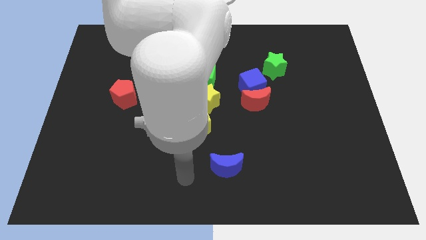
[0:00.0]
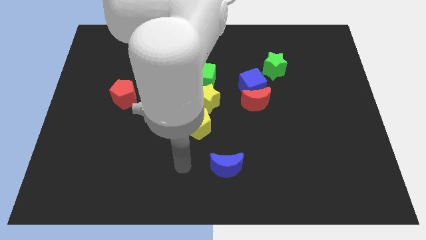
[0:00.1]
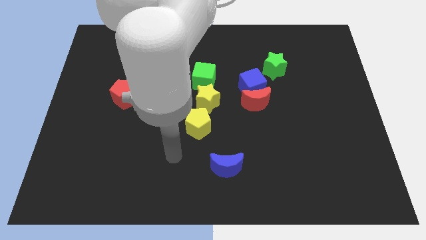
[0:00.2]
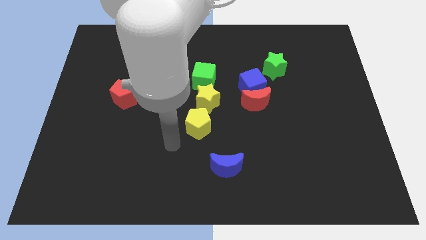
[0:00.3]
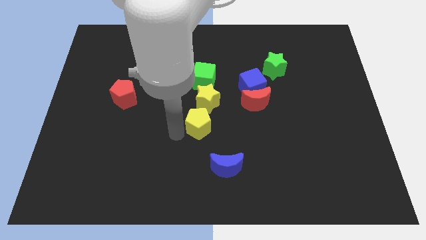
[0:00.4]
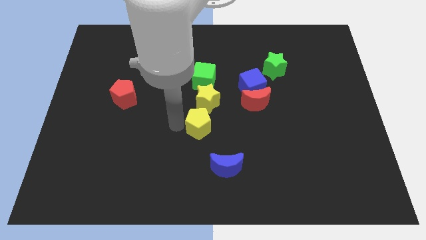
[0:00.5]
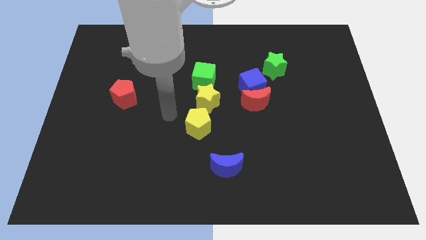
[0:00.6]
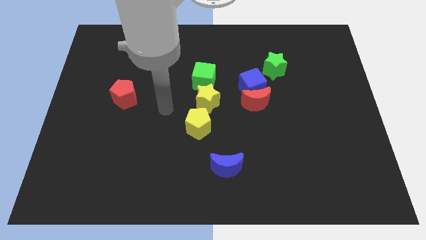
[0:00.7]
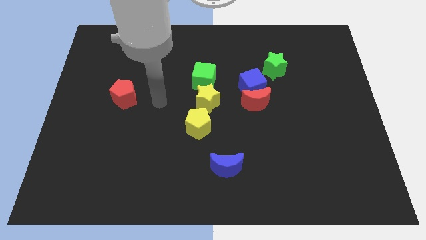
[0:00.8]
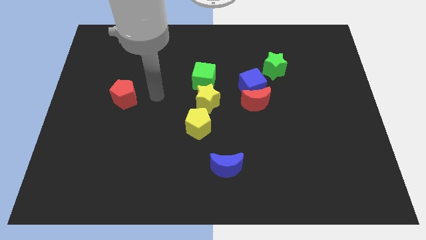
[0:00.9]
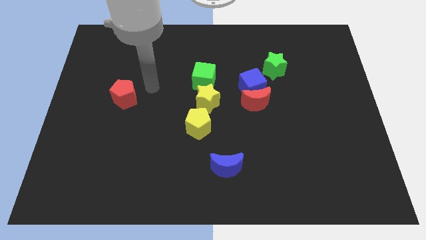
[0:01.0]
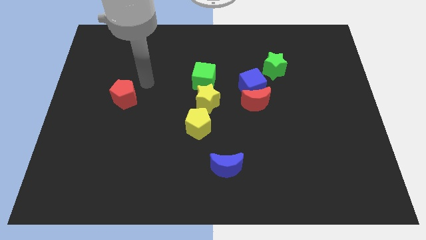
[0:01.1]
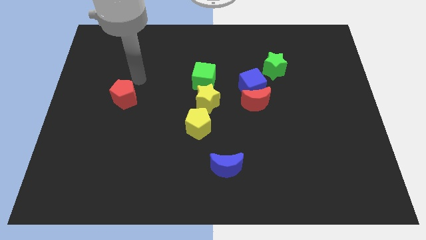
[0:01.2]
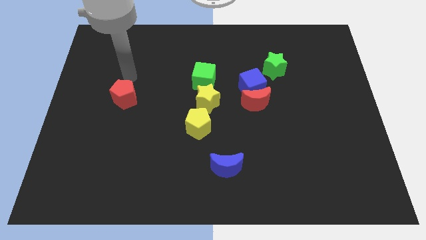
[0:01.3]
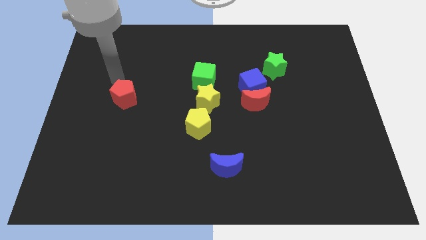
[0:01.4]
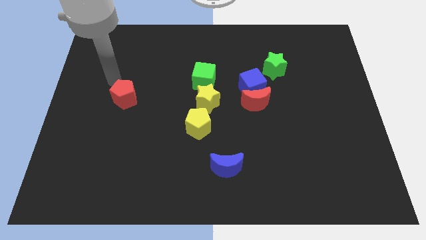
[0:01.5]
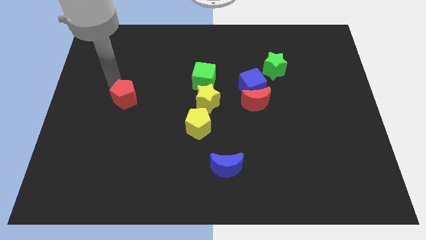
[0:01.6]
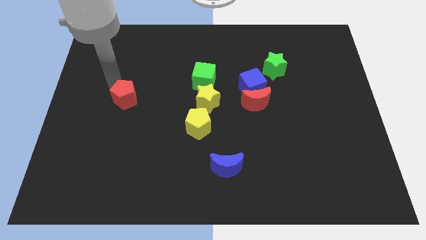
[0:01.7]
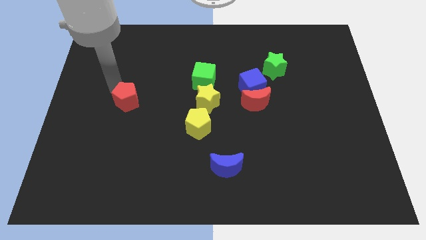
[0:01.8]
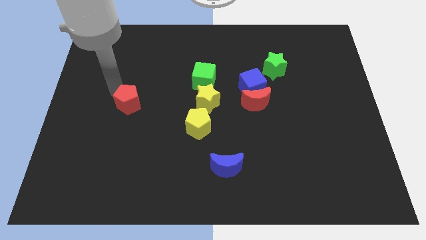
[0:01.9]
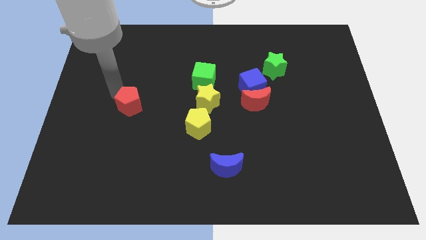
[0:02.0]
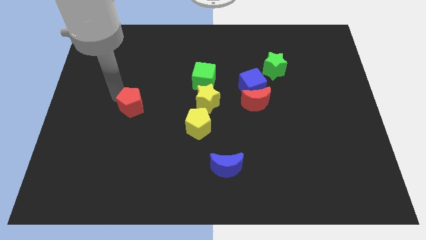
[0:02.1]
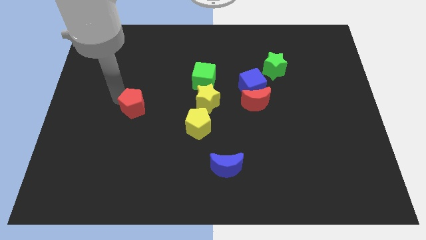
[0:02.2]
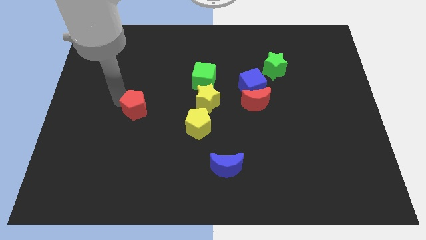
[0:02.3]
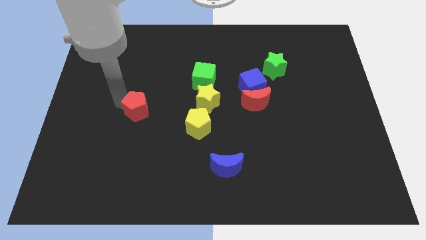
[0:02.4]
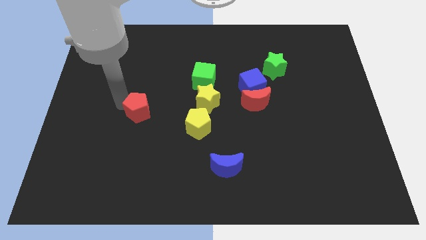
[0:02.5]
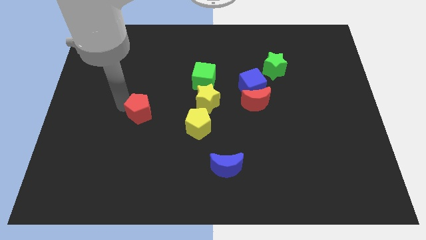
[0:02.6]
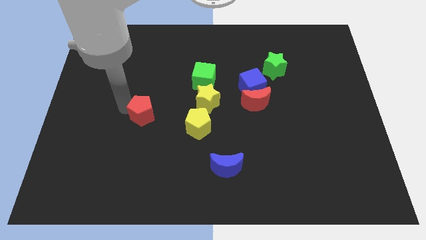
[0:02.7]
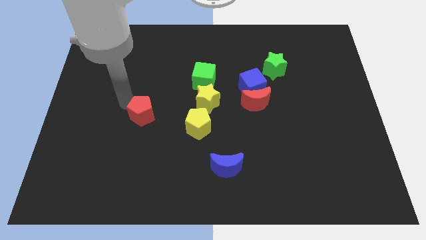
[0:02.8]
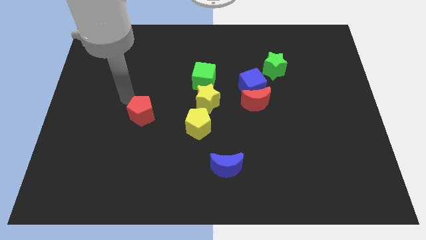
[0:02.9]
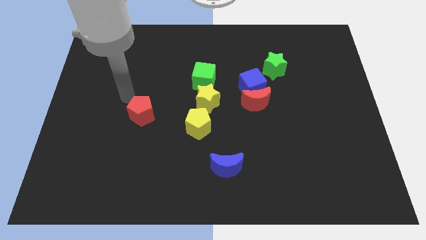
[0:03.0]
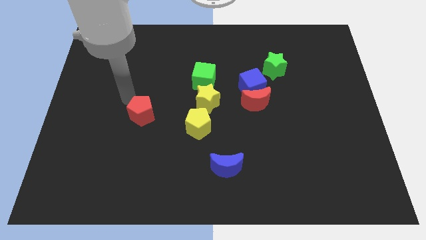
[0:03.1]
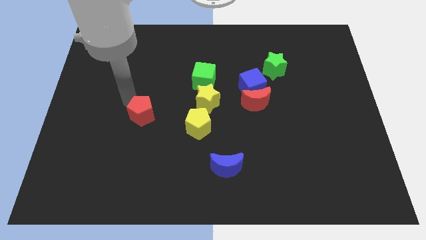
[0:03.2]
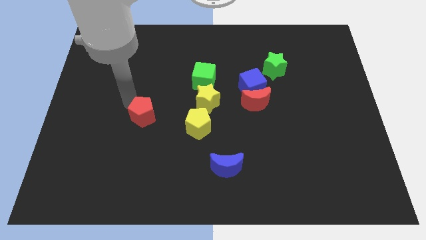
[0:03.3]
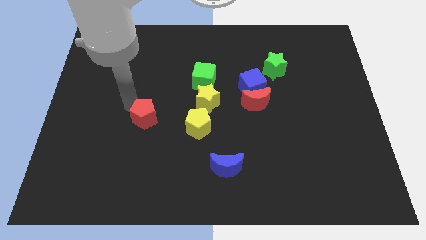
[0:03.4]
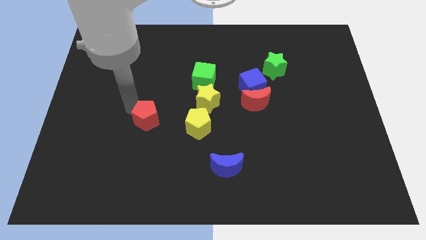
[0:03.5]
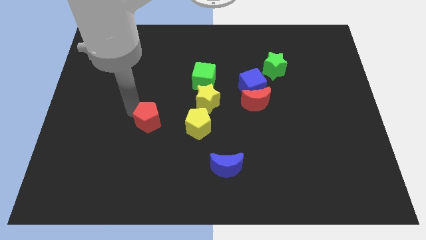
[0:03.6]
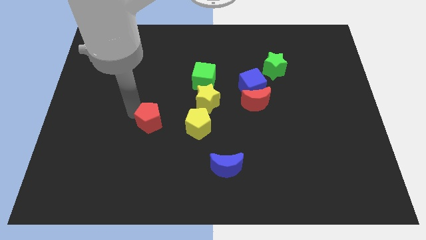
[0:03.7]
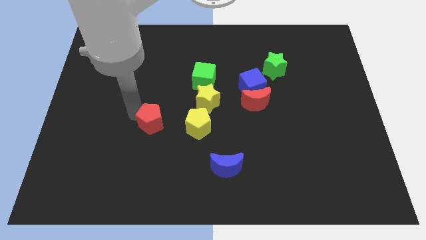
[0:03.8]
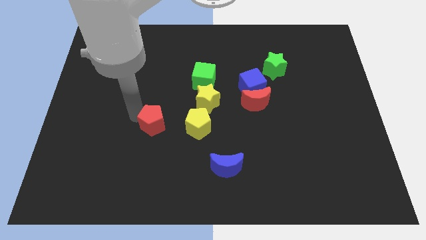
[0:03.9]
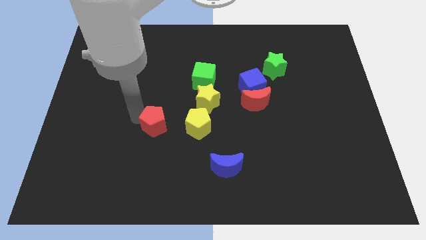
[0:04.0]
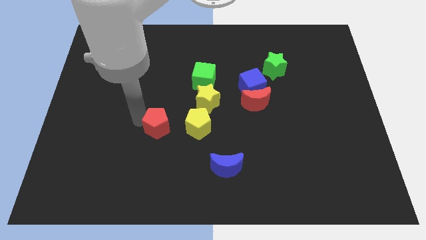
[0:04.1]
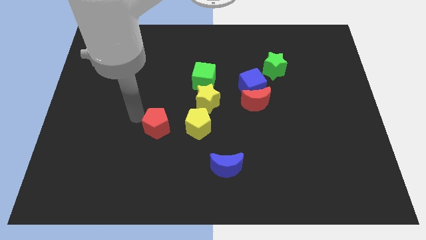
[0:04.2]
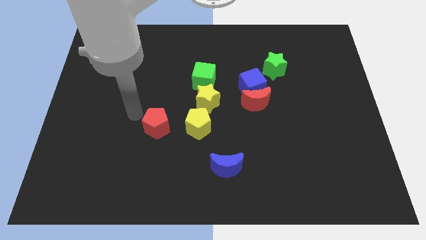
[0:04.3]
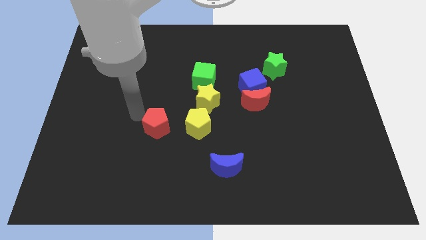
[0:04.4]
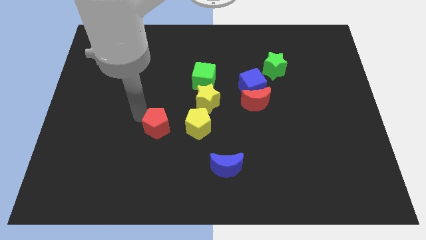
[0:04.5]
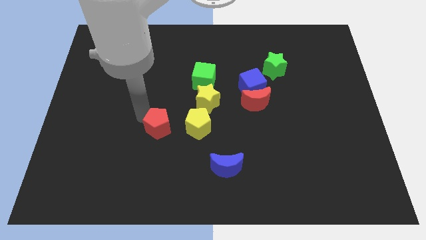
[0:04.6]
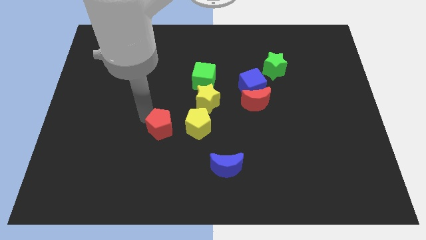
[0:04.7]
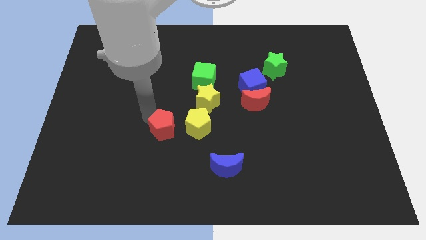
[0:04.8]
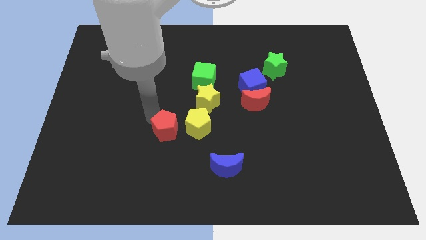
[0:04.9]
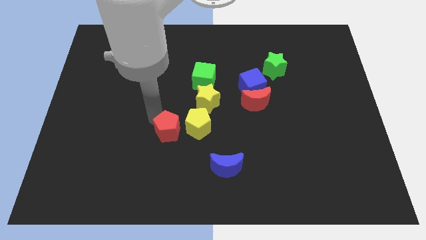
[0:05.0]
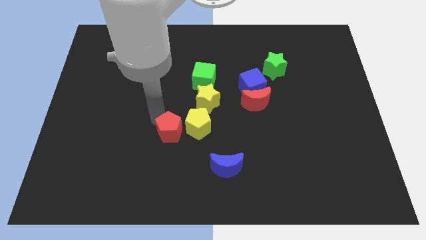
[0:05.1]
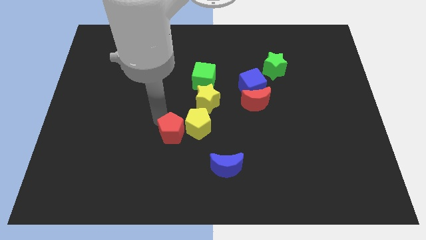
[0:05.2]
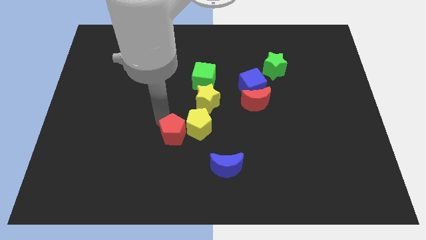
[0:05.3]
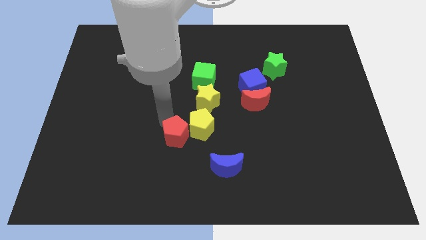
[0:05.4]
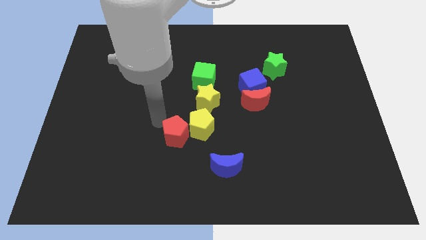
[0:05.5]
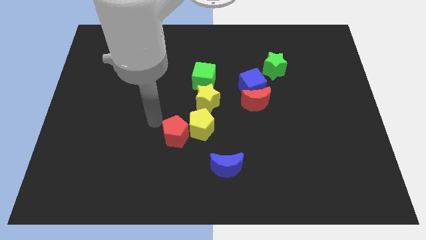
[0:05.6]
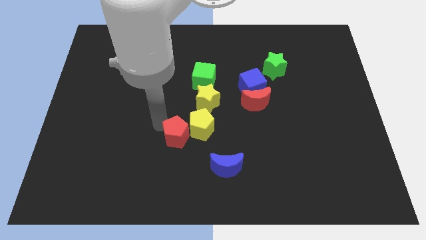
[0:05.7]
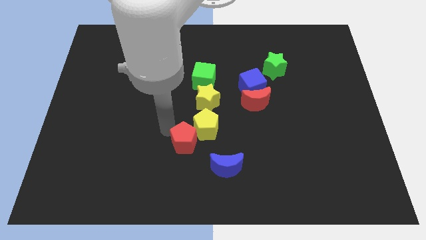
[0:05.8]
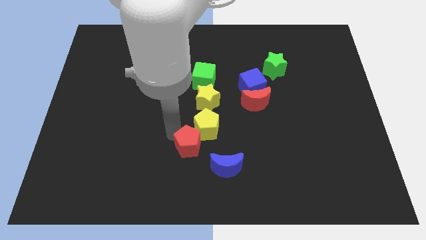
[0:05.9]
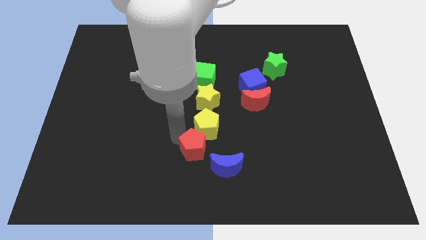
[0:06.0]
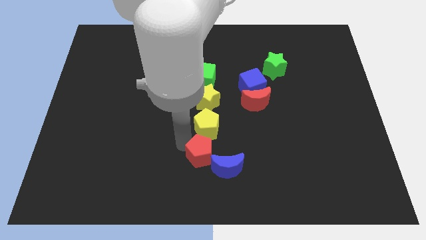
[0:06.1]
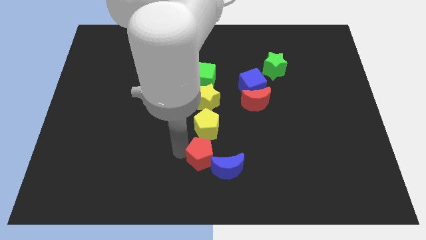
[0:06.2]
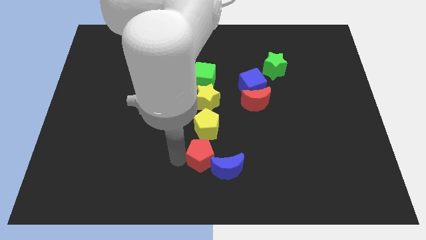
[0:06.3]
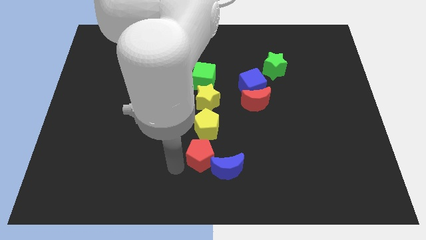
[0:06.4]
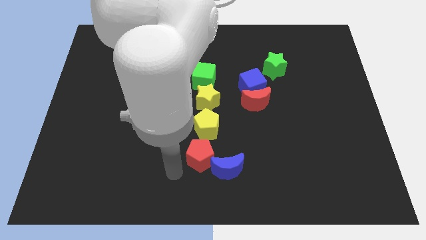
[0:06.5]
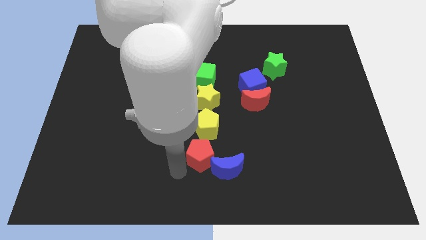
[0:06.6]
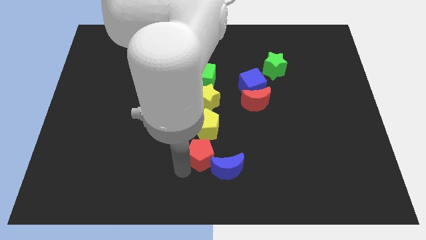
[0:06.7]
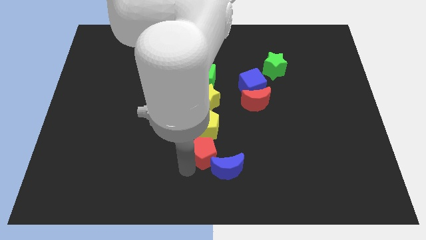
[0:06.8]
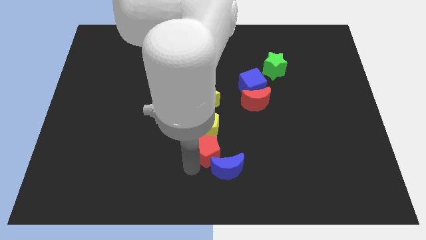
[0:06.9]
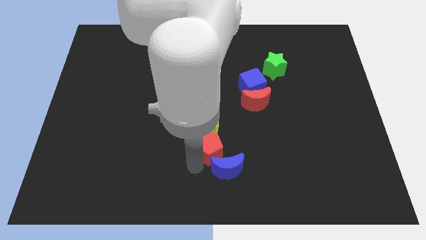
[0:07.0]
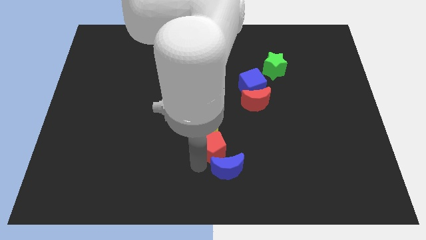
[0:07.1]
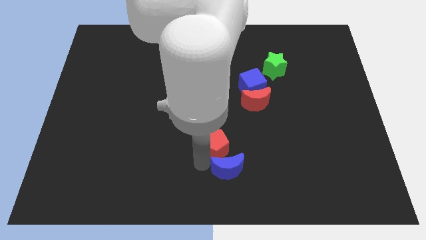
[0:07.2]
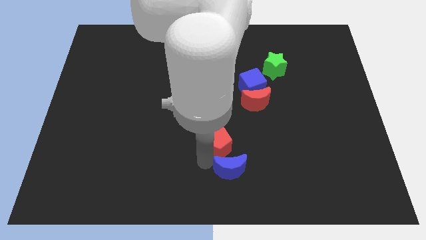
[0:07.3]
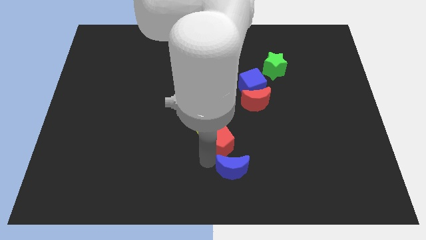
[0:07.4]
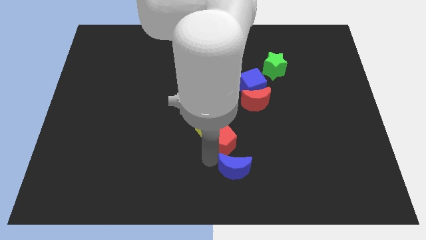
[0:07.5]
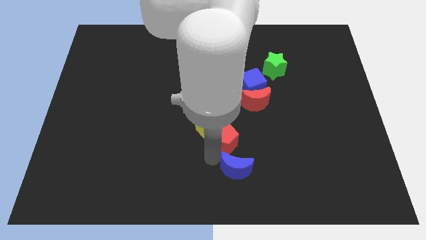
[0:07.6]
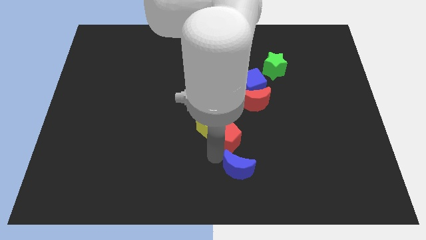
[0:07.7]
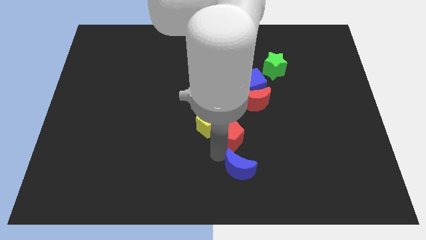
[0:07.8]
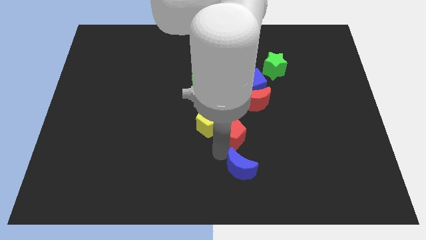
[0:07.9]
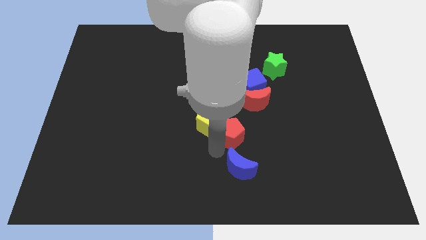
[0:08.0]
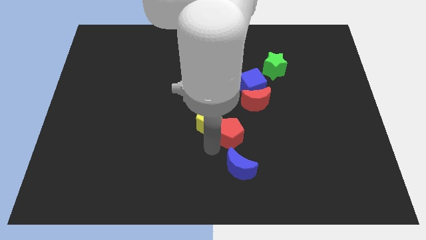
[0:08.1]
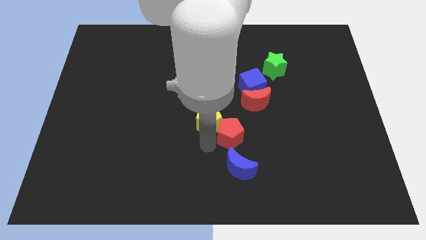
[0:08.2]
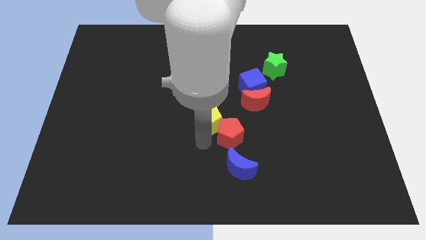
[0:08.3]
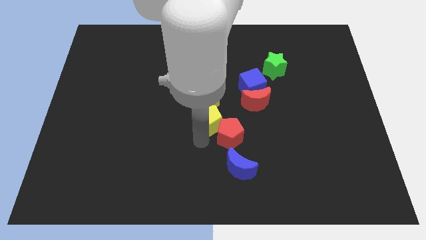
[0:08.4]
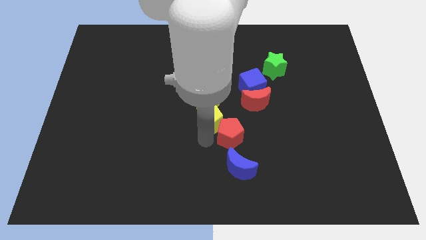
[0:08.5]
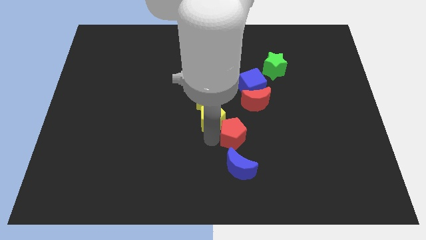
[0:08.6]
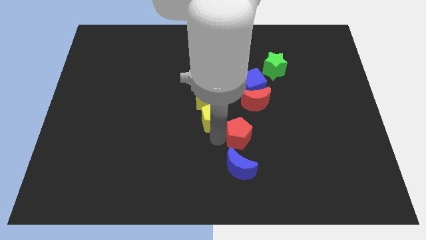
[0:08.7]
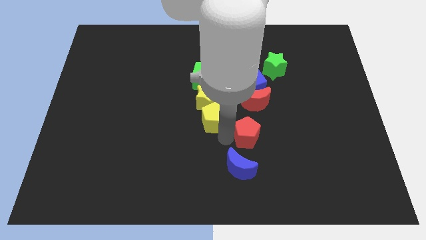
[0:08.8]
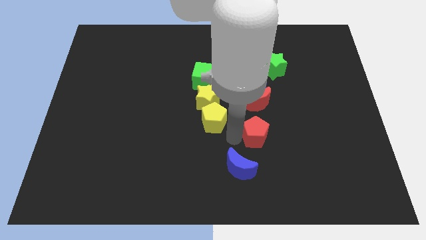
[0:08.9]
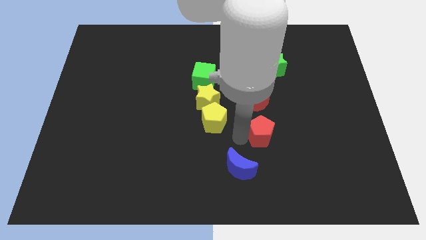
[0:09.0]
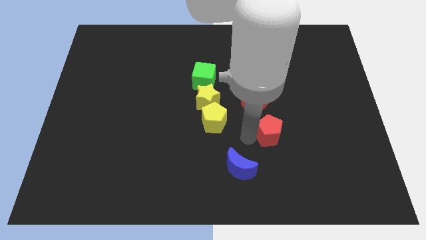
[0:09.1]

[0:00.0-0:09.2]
move the red pentagon diagonally down and to the right of the red moon
